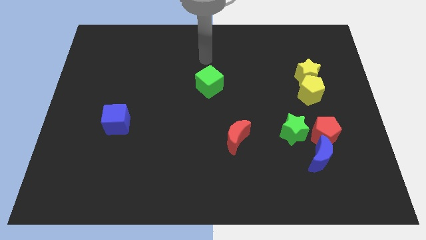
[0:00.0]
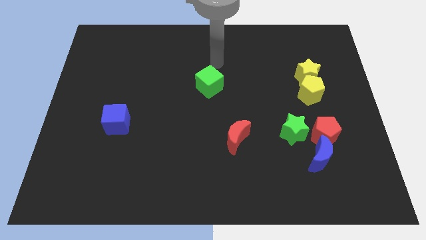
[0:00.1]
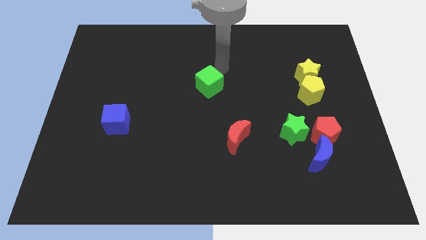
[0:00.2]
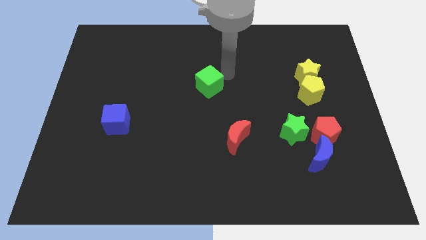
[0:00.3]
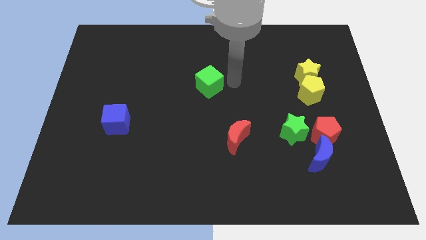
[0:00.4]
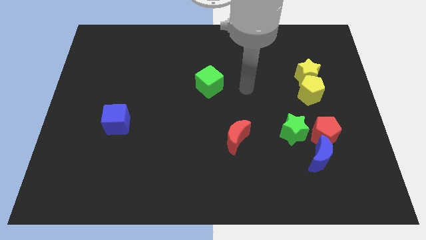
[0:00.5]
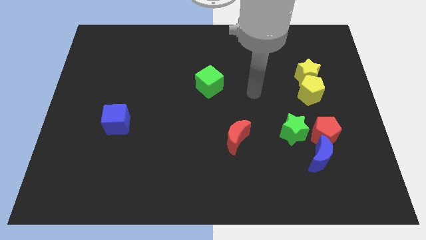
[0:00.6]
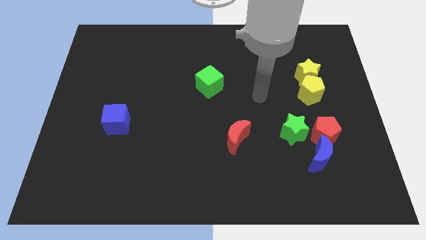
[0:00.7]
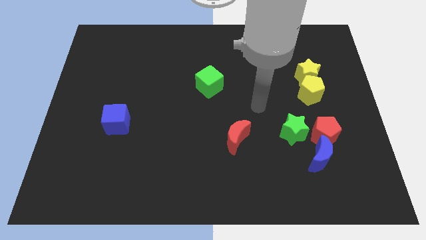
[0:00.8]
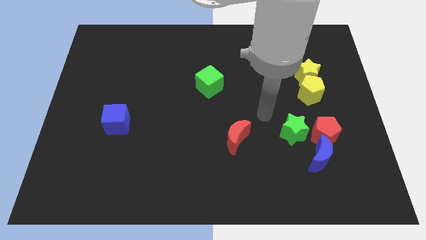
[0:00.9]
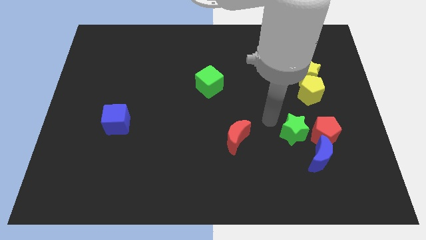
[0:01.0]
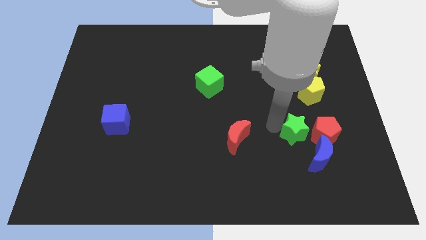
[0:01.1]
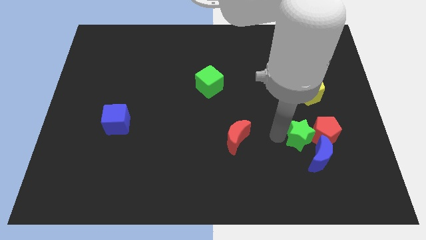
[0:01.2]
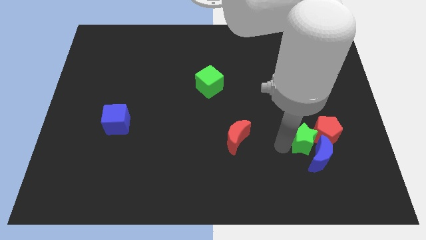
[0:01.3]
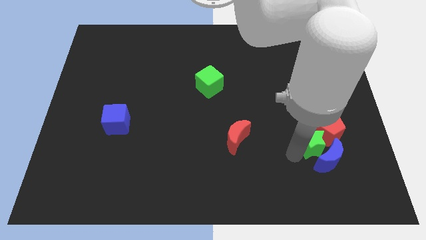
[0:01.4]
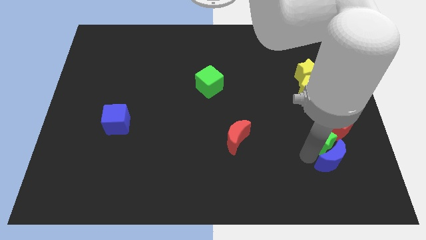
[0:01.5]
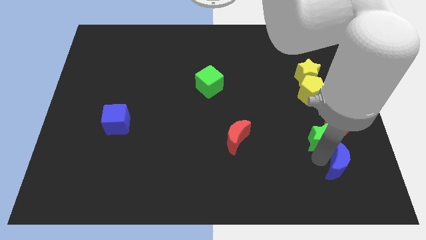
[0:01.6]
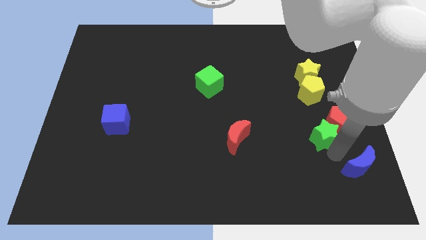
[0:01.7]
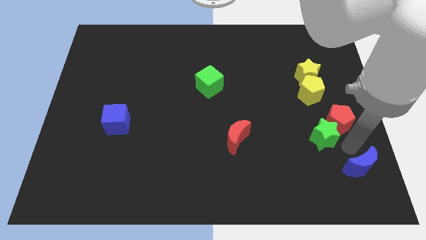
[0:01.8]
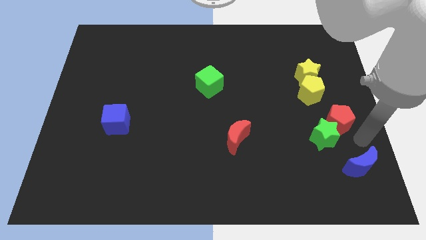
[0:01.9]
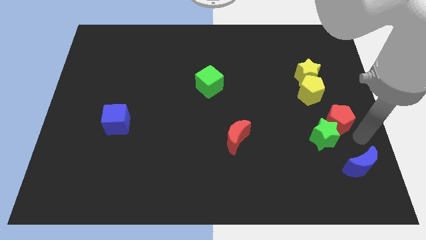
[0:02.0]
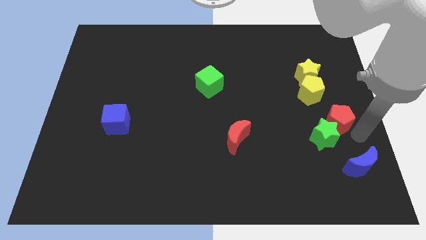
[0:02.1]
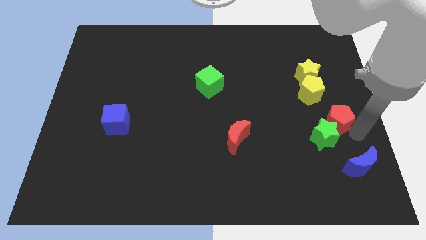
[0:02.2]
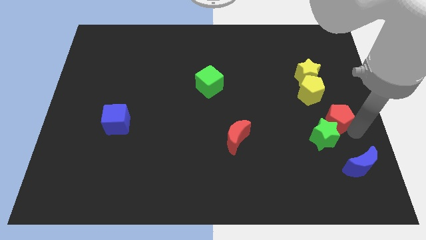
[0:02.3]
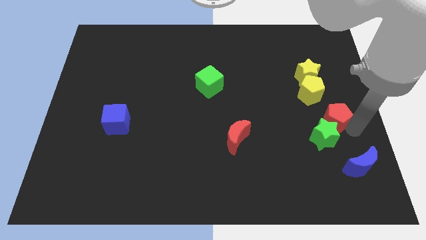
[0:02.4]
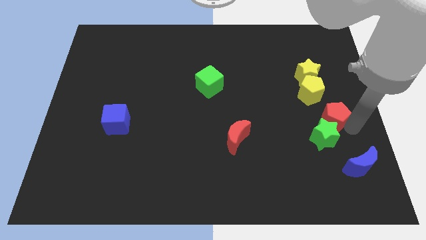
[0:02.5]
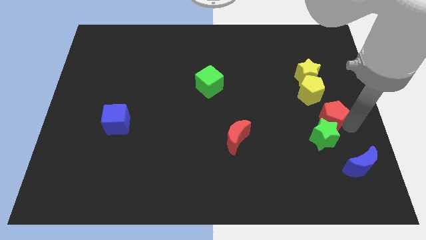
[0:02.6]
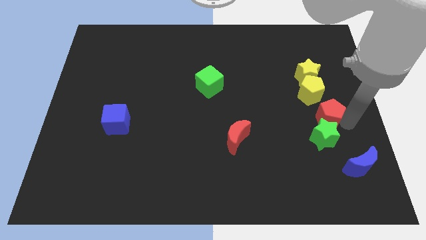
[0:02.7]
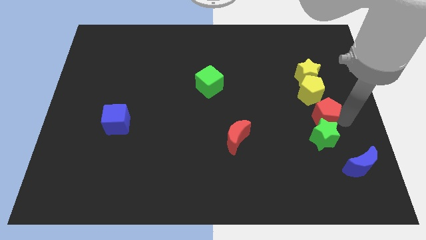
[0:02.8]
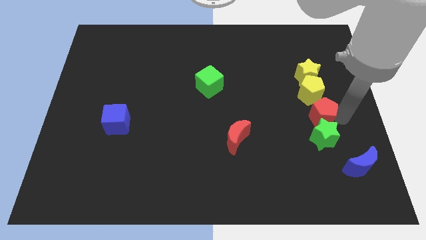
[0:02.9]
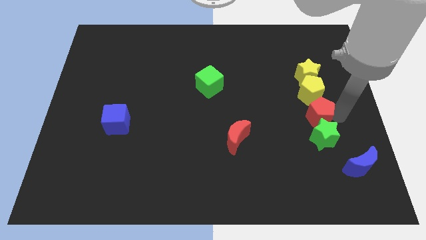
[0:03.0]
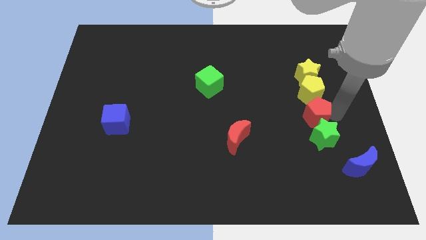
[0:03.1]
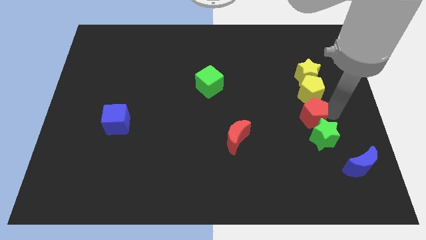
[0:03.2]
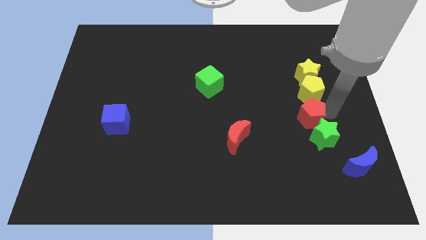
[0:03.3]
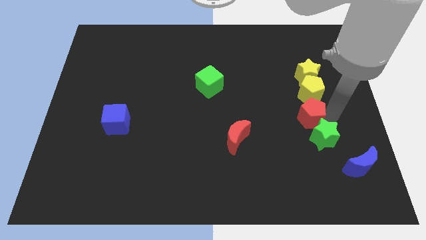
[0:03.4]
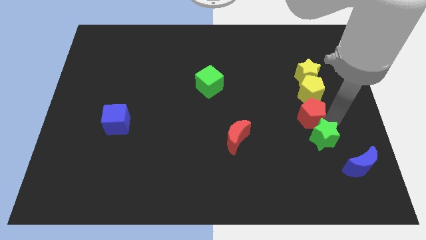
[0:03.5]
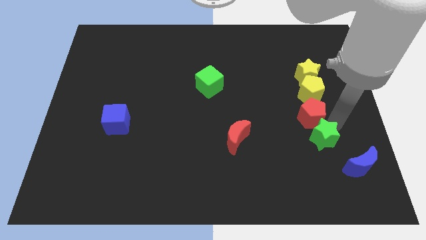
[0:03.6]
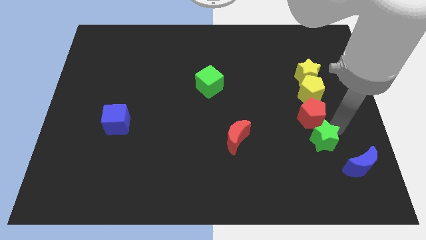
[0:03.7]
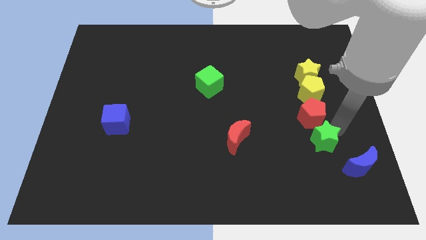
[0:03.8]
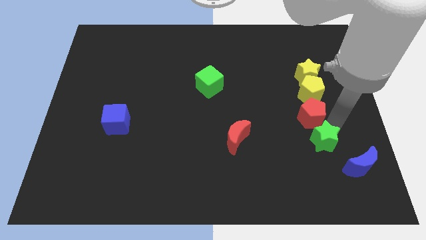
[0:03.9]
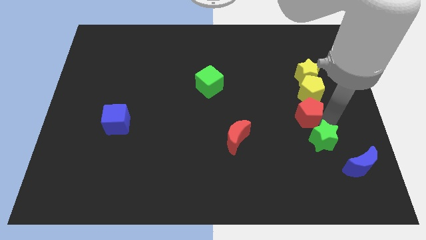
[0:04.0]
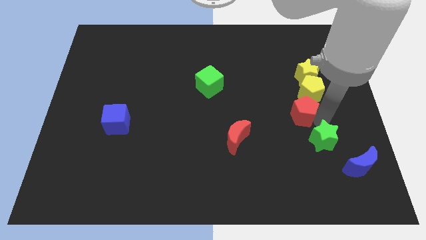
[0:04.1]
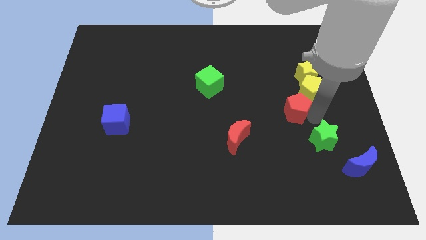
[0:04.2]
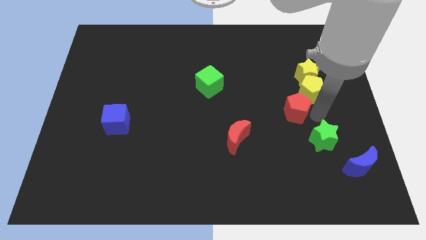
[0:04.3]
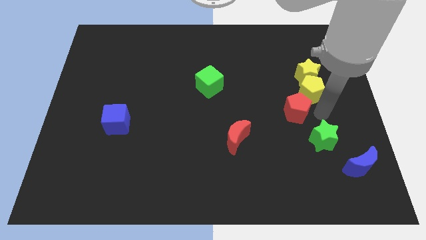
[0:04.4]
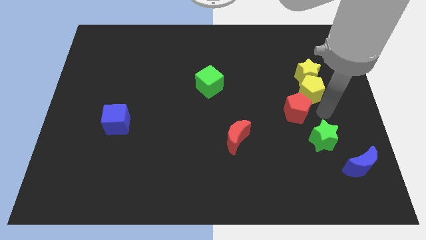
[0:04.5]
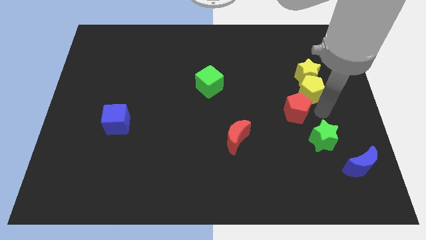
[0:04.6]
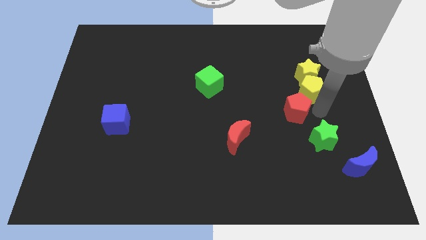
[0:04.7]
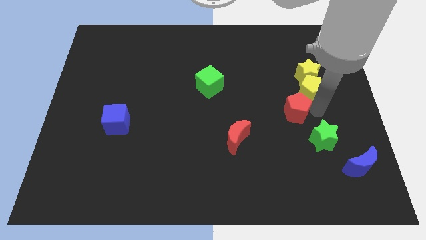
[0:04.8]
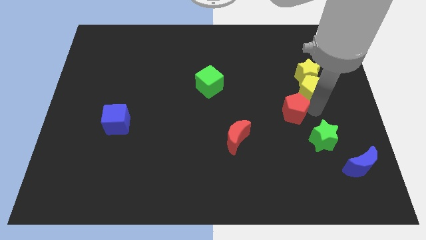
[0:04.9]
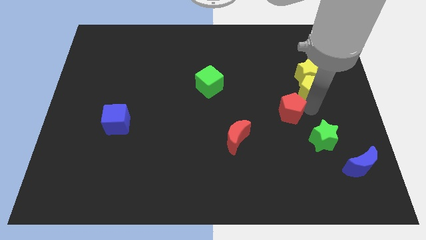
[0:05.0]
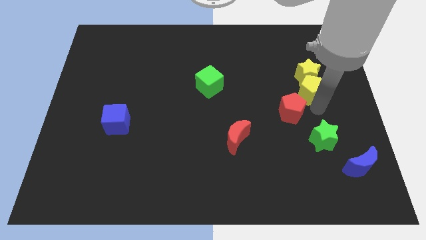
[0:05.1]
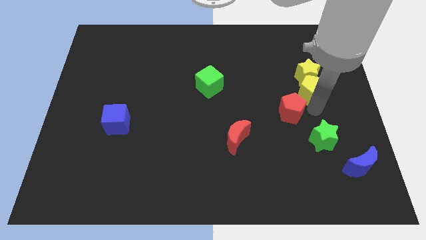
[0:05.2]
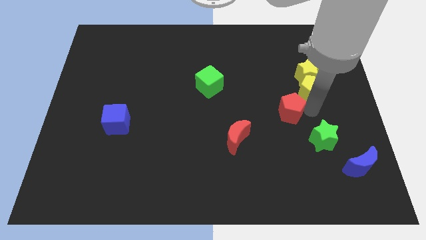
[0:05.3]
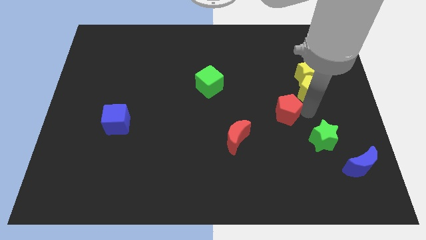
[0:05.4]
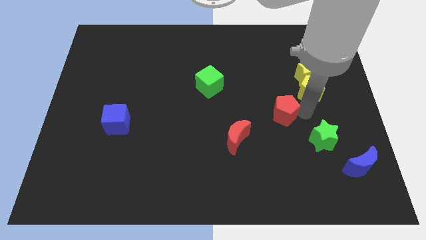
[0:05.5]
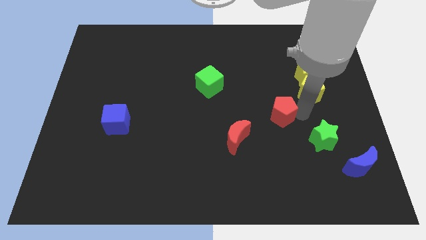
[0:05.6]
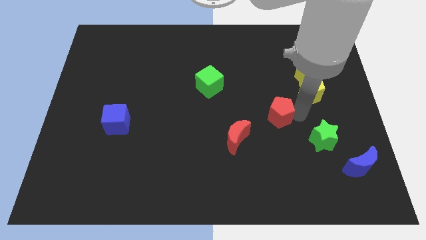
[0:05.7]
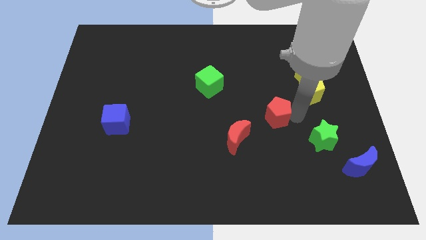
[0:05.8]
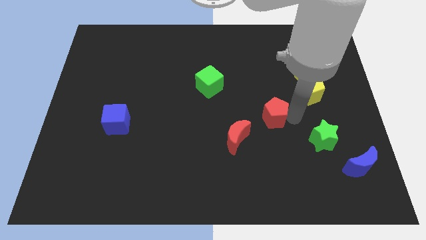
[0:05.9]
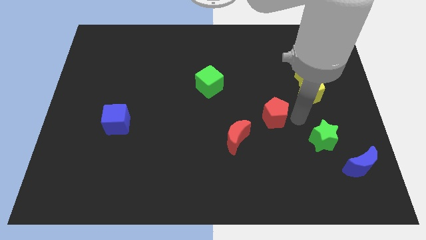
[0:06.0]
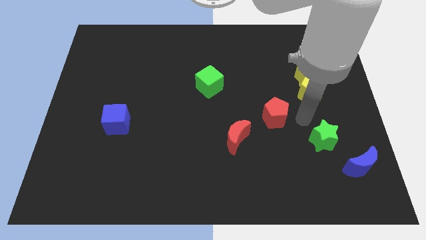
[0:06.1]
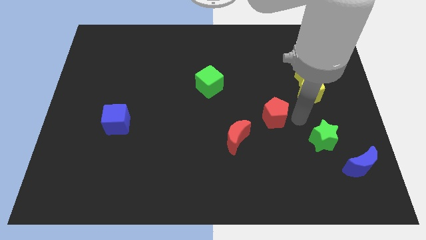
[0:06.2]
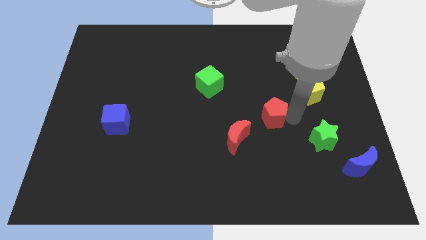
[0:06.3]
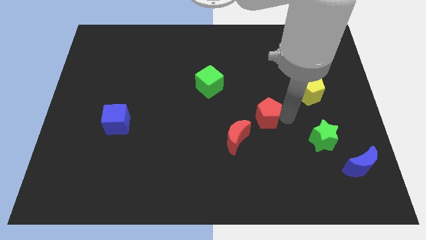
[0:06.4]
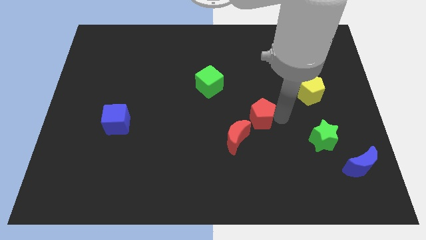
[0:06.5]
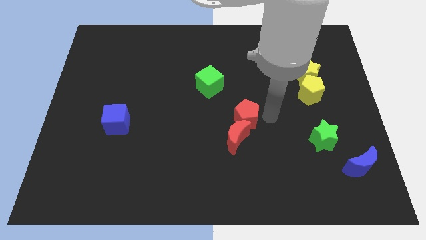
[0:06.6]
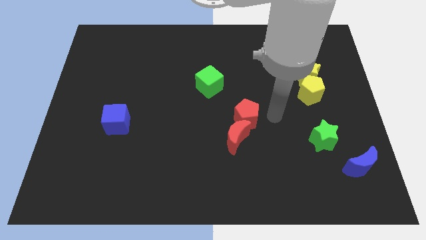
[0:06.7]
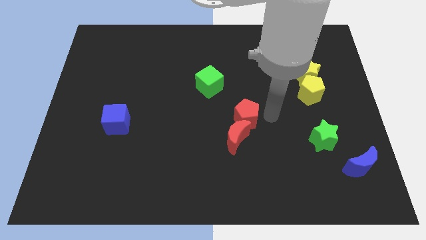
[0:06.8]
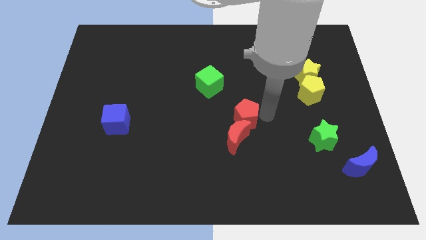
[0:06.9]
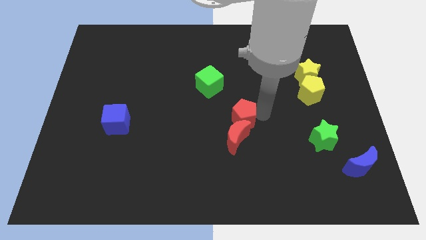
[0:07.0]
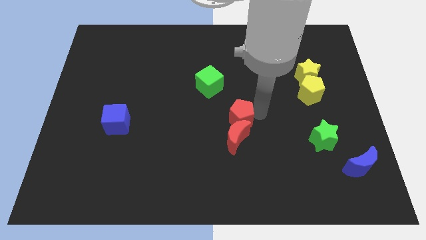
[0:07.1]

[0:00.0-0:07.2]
push the red pentagon to the top left side of the red moon

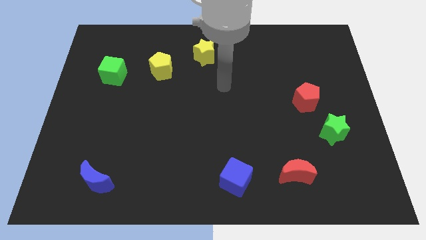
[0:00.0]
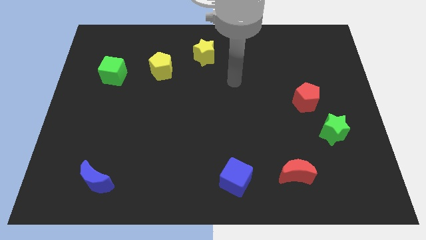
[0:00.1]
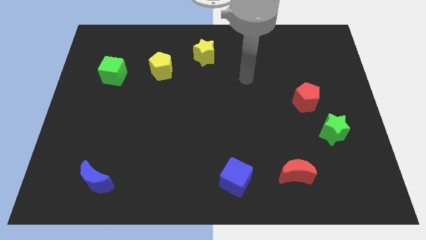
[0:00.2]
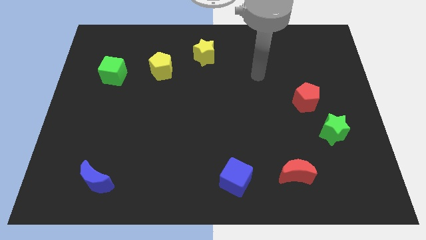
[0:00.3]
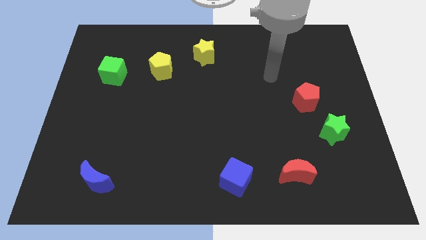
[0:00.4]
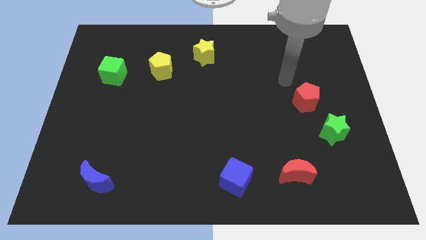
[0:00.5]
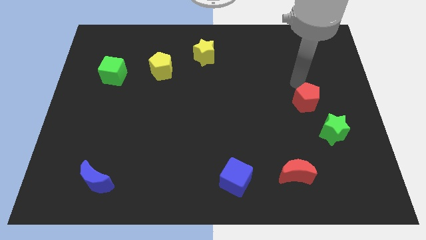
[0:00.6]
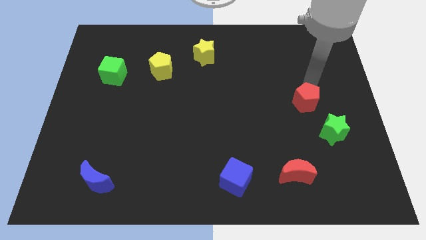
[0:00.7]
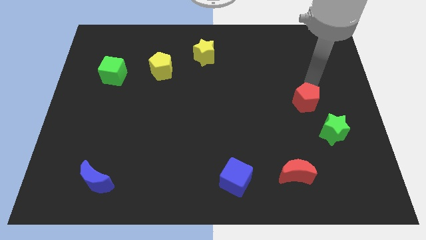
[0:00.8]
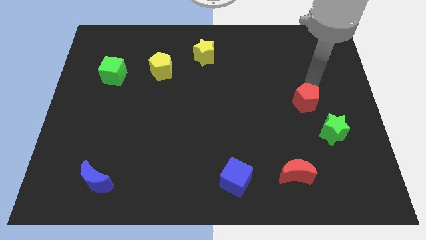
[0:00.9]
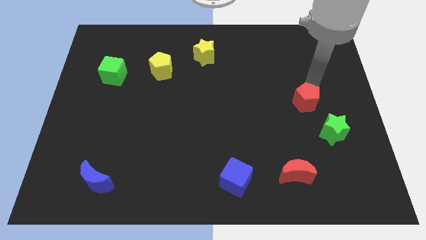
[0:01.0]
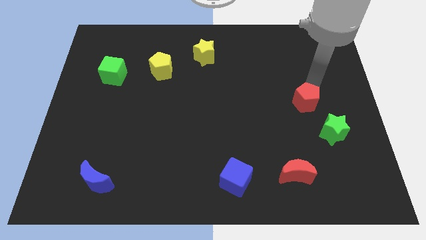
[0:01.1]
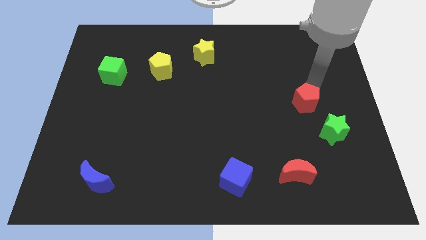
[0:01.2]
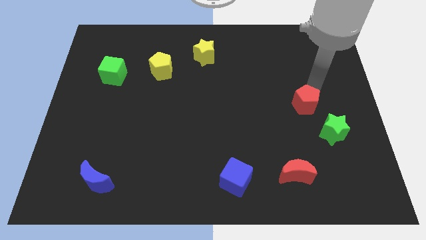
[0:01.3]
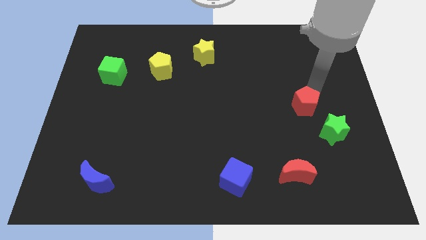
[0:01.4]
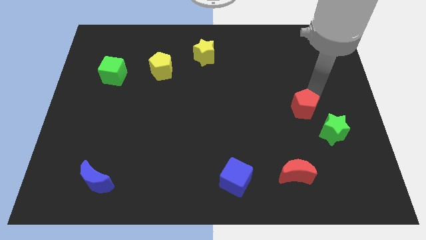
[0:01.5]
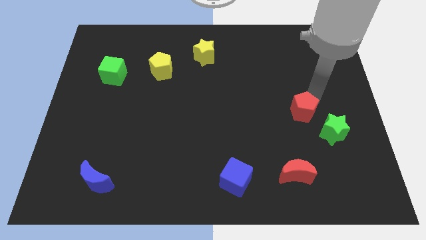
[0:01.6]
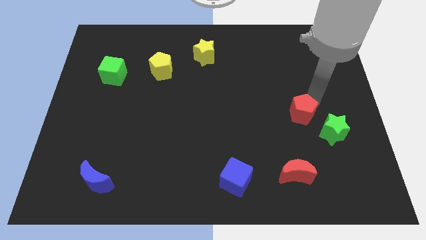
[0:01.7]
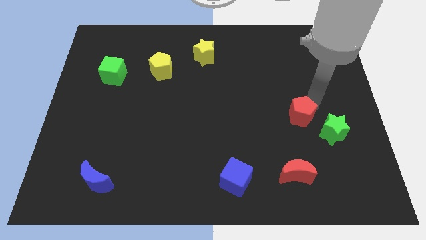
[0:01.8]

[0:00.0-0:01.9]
slide the red pentagon to the top of the red moon
